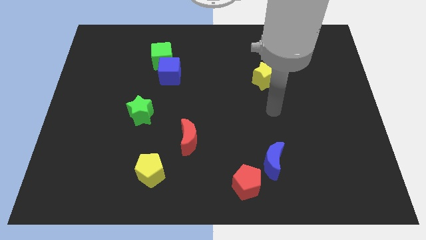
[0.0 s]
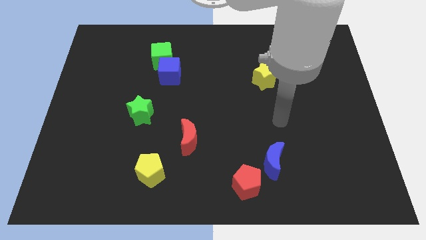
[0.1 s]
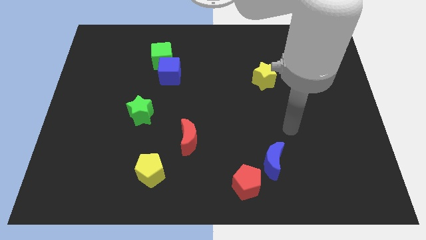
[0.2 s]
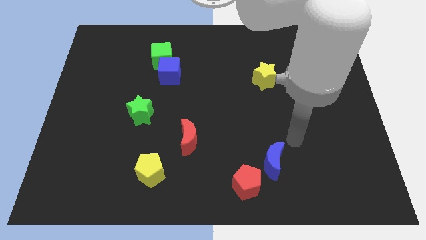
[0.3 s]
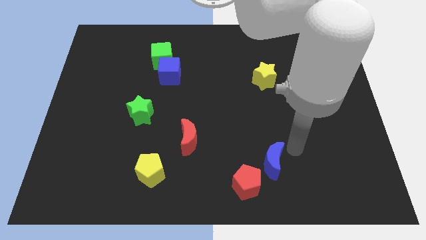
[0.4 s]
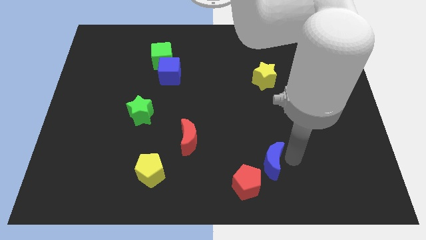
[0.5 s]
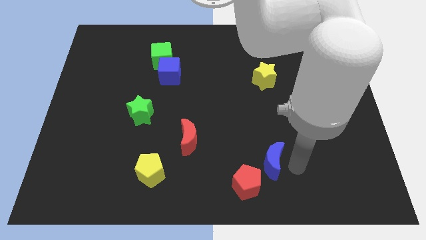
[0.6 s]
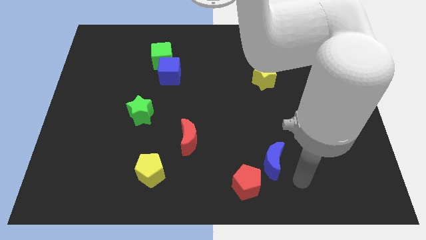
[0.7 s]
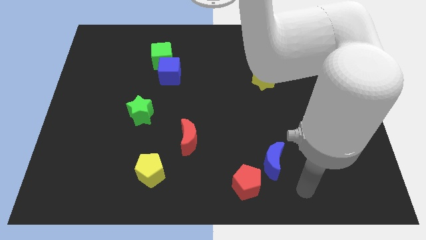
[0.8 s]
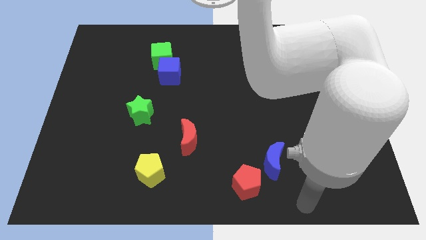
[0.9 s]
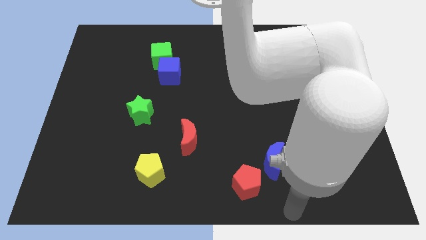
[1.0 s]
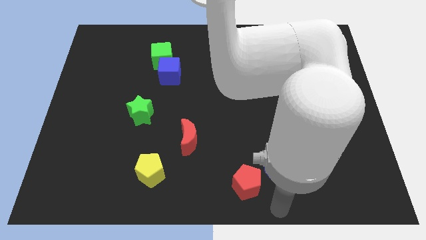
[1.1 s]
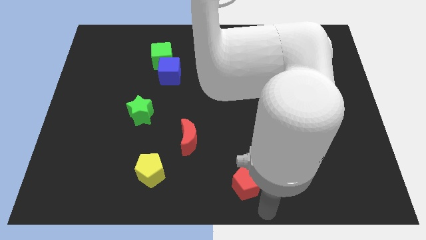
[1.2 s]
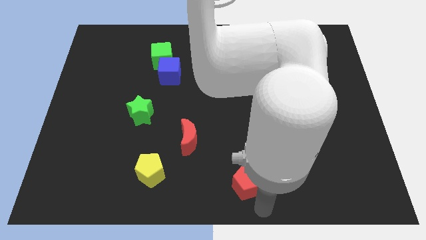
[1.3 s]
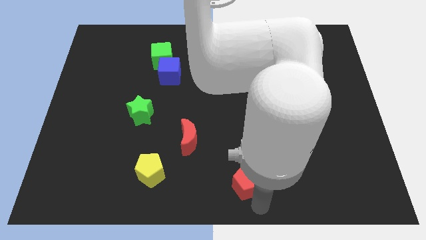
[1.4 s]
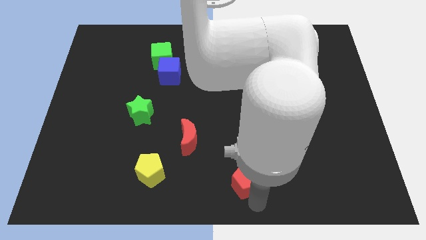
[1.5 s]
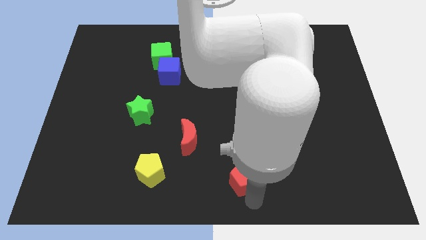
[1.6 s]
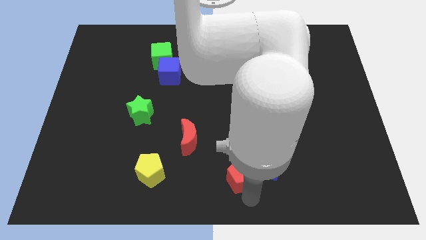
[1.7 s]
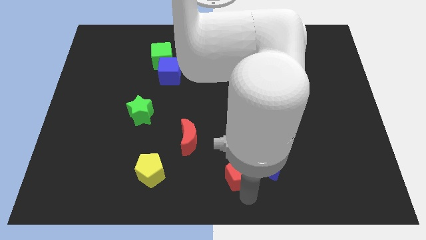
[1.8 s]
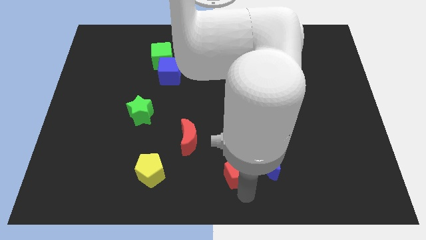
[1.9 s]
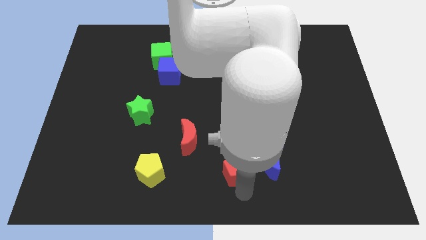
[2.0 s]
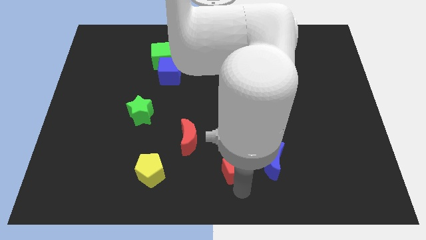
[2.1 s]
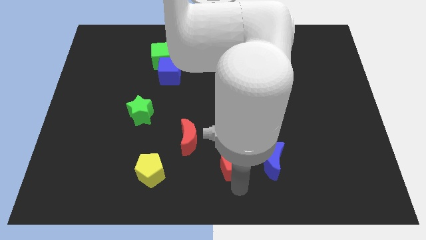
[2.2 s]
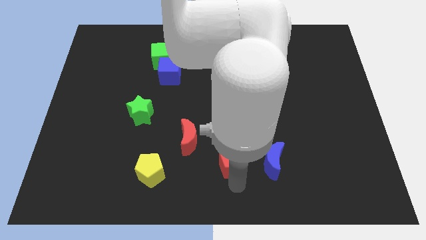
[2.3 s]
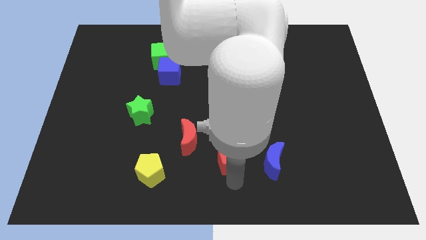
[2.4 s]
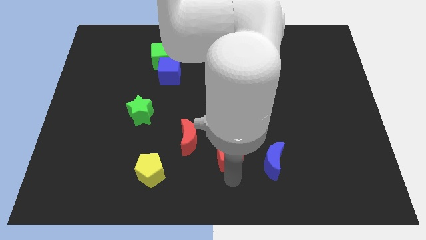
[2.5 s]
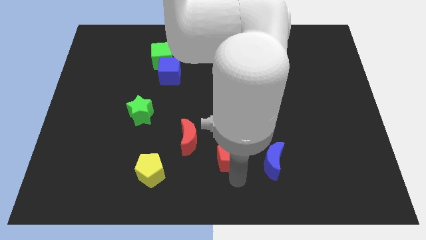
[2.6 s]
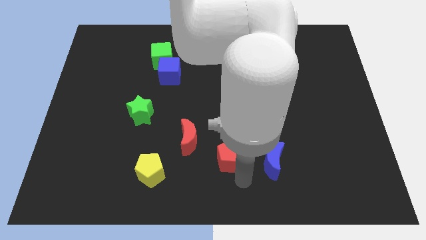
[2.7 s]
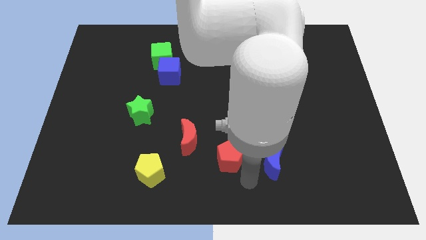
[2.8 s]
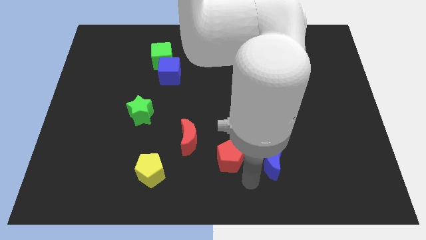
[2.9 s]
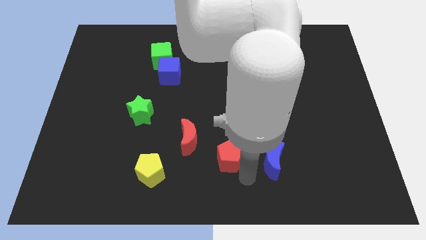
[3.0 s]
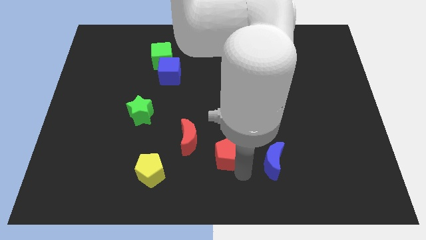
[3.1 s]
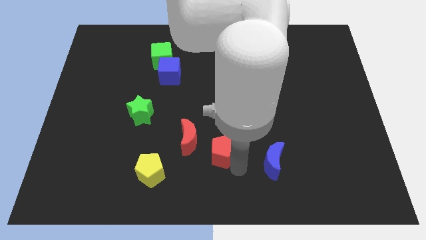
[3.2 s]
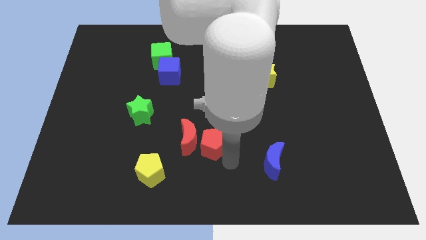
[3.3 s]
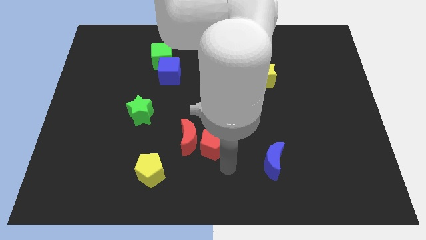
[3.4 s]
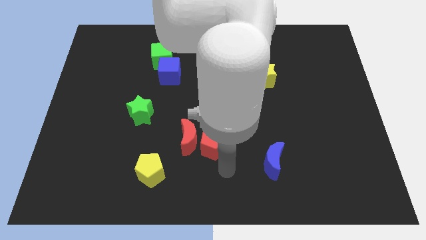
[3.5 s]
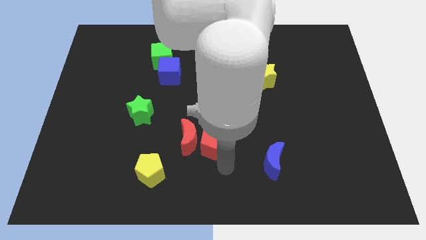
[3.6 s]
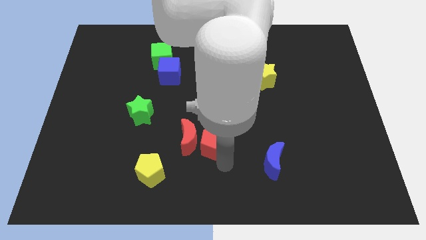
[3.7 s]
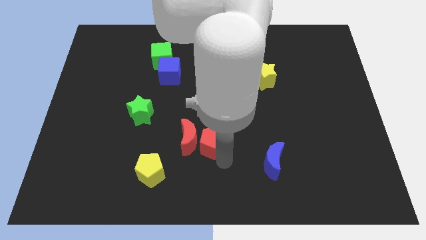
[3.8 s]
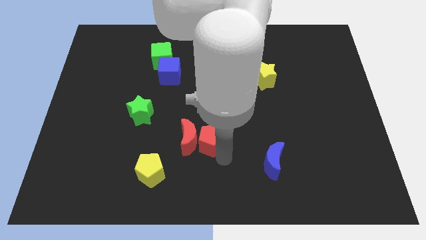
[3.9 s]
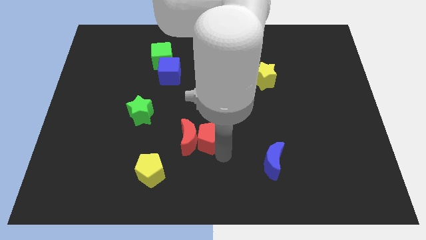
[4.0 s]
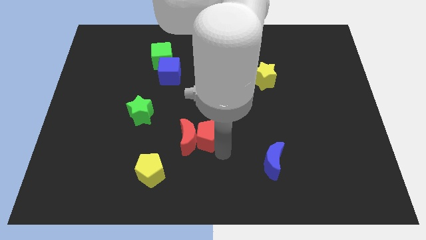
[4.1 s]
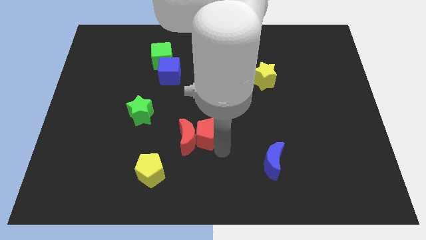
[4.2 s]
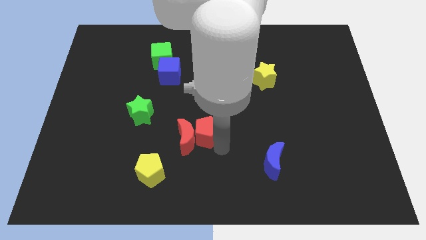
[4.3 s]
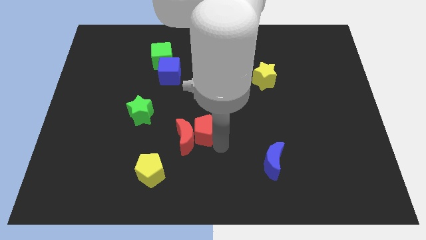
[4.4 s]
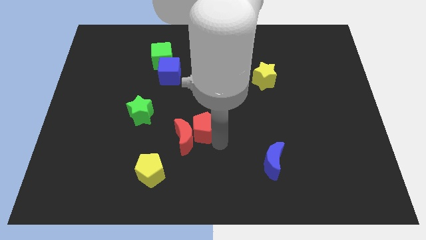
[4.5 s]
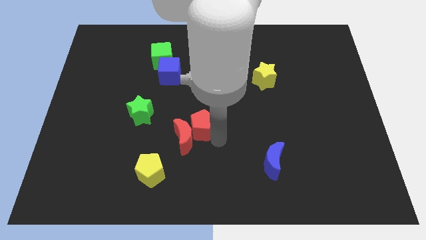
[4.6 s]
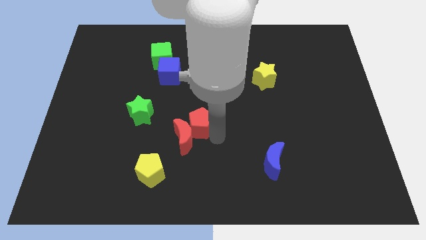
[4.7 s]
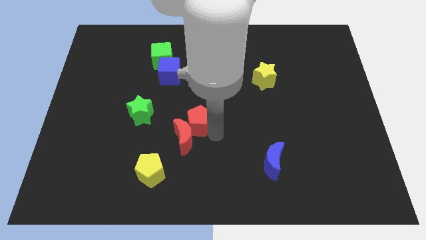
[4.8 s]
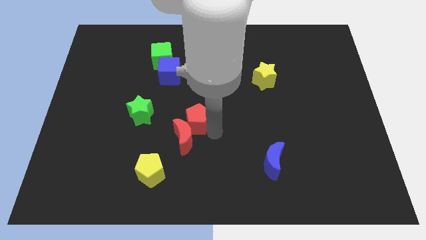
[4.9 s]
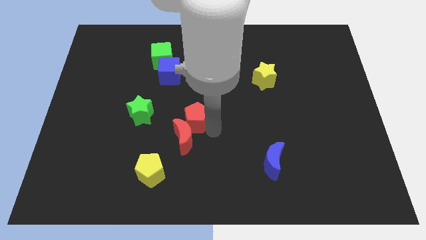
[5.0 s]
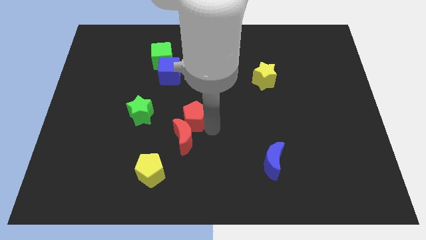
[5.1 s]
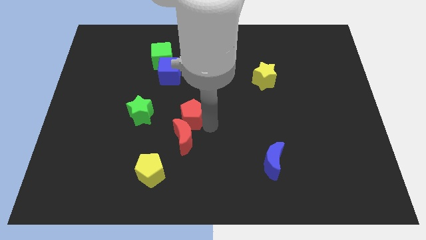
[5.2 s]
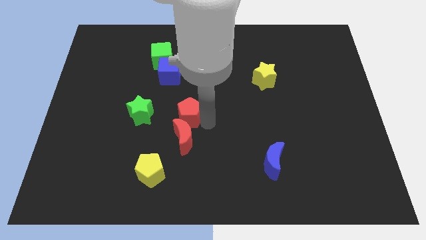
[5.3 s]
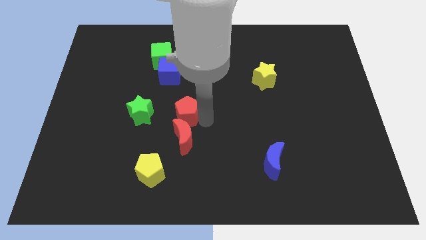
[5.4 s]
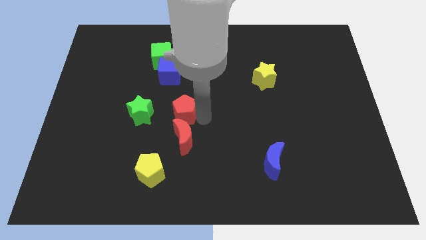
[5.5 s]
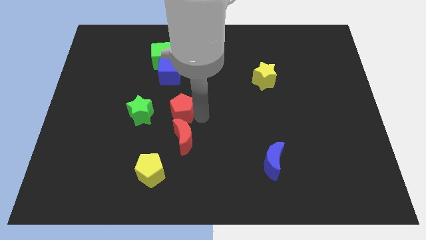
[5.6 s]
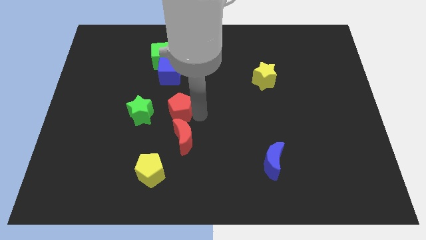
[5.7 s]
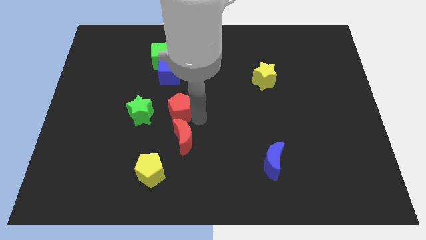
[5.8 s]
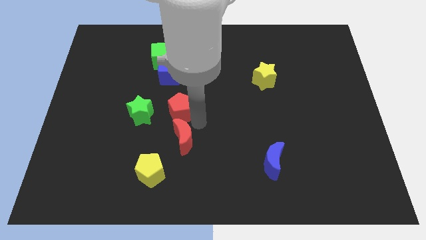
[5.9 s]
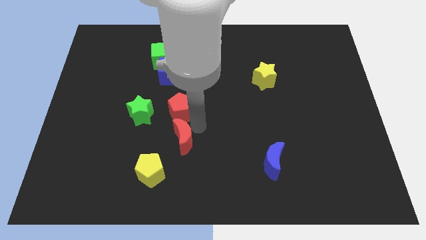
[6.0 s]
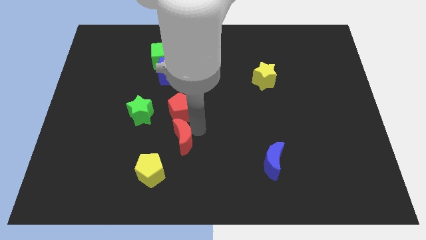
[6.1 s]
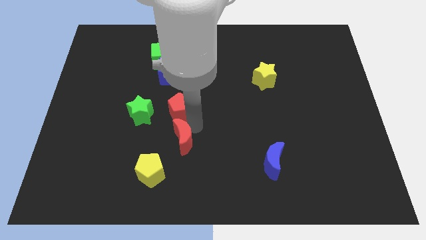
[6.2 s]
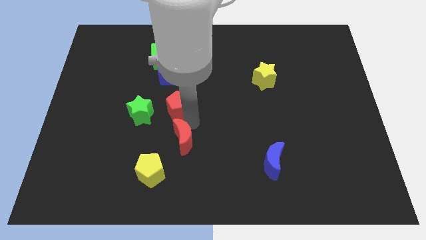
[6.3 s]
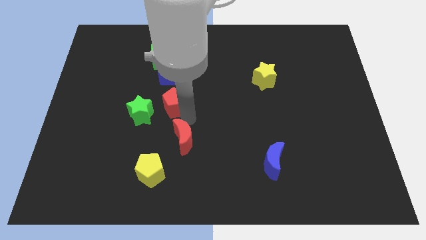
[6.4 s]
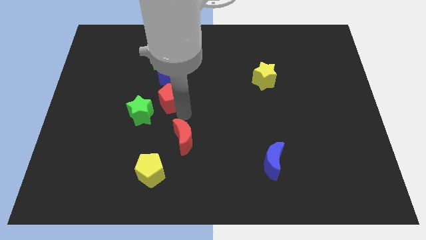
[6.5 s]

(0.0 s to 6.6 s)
push the red pentagon to the bottom side of the green cube
